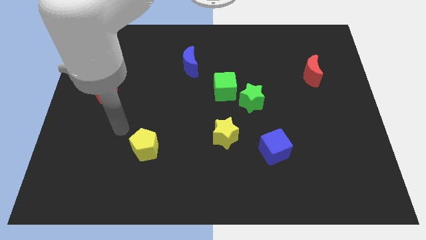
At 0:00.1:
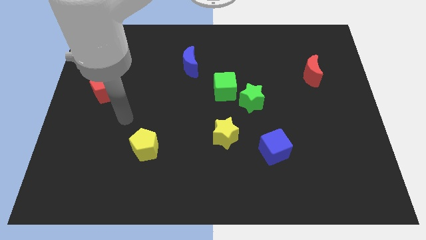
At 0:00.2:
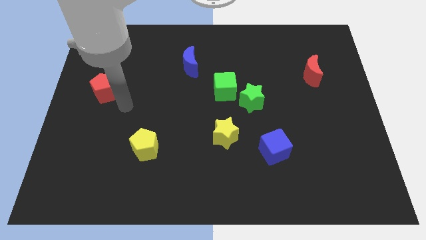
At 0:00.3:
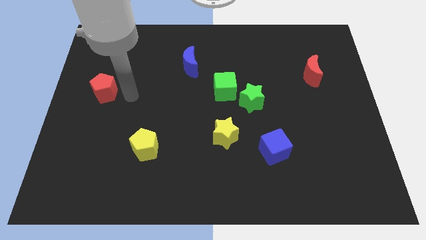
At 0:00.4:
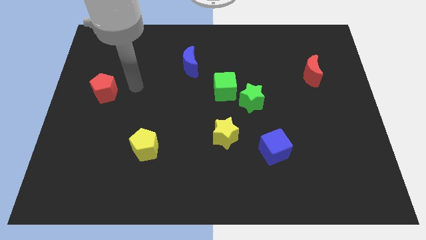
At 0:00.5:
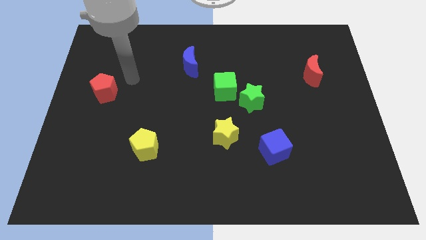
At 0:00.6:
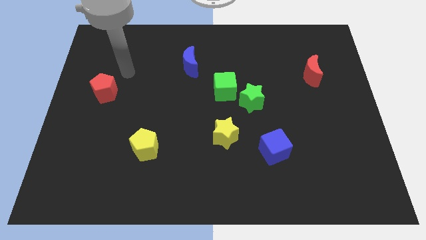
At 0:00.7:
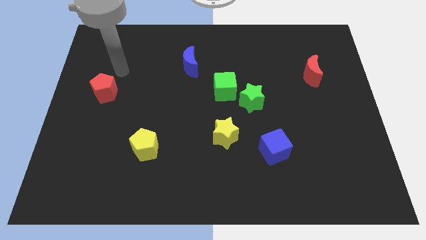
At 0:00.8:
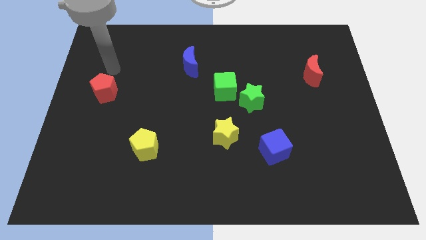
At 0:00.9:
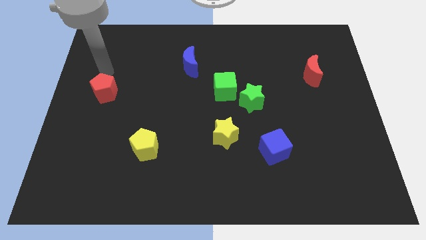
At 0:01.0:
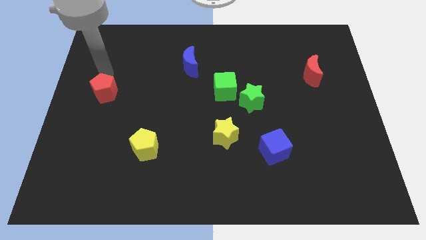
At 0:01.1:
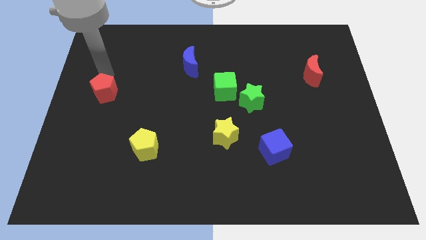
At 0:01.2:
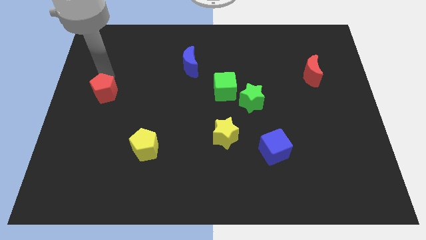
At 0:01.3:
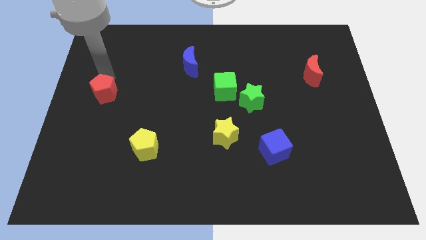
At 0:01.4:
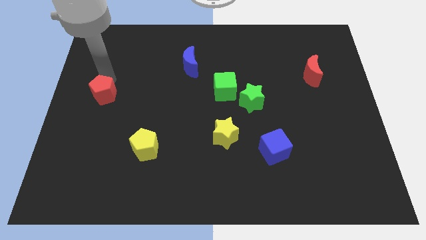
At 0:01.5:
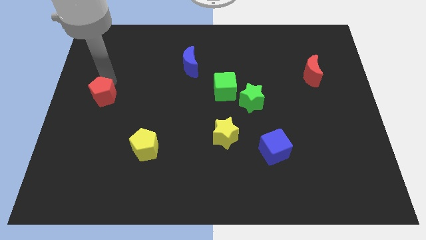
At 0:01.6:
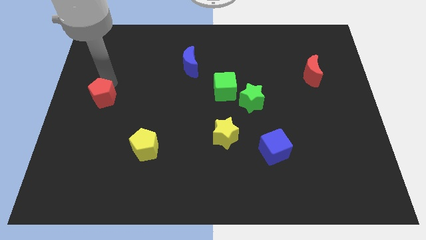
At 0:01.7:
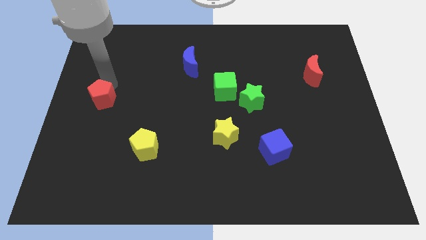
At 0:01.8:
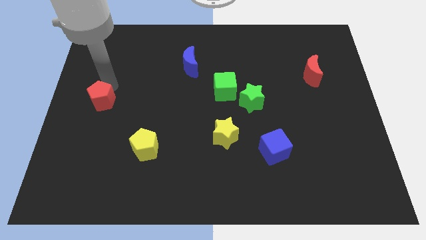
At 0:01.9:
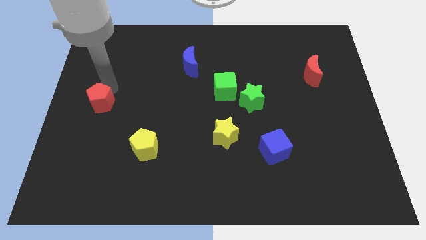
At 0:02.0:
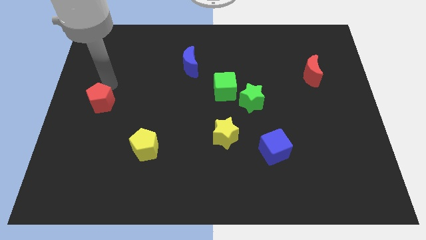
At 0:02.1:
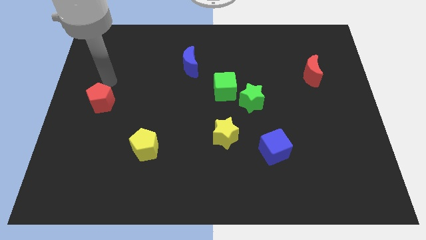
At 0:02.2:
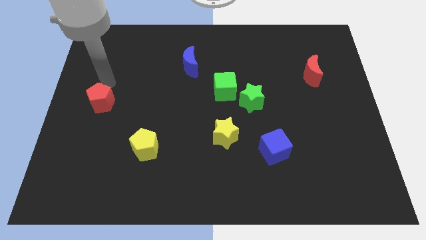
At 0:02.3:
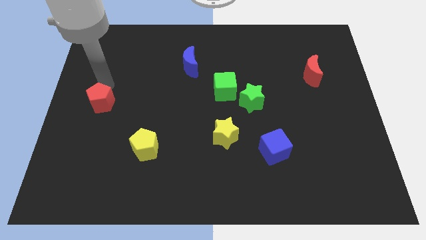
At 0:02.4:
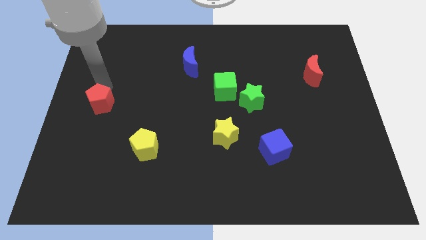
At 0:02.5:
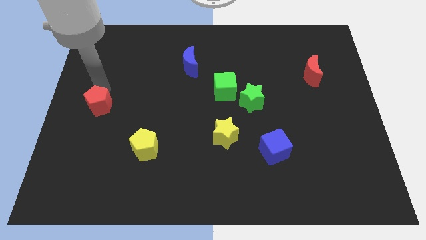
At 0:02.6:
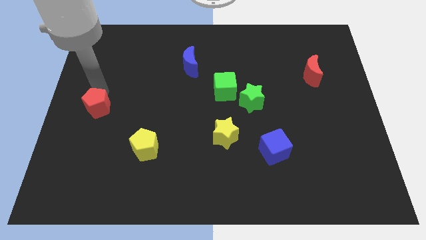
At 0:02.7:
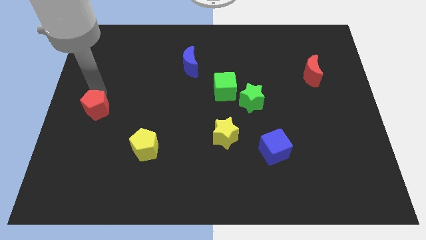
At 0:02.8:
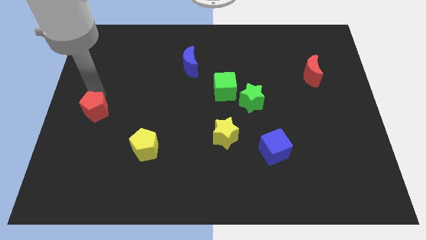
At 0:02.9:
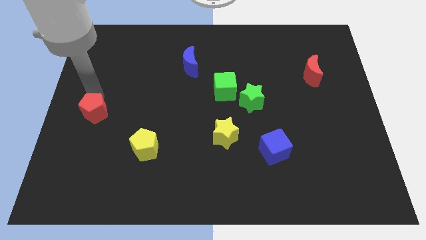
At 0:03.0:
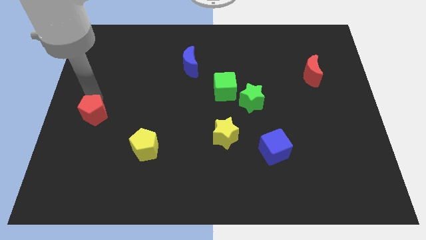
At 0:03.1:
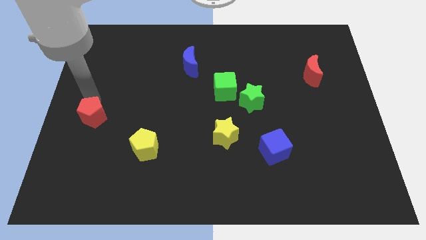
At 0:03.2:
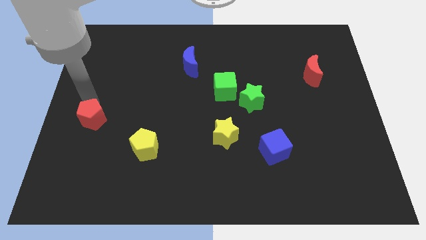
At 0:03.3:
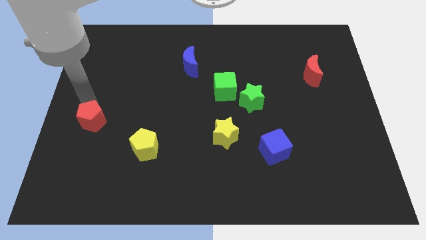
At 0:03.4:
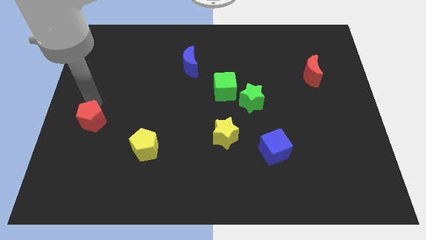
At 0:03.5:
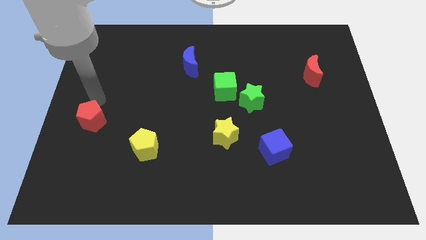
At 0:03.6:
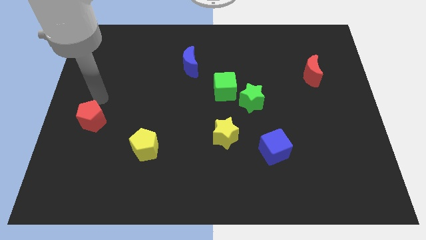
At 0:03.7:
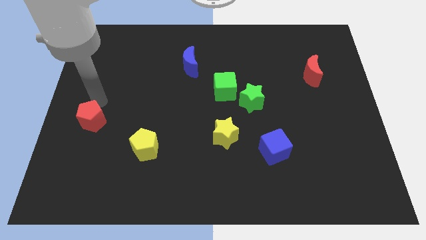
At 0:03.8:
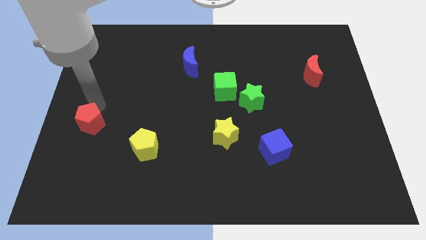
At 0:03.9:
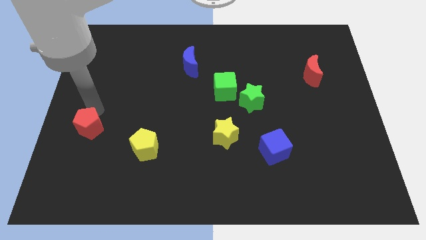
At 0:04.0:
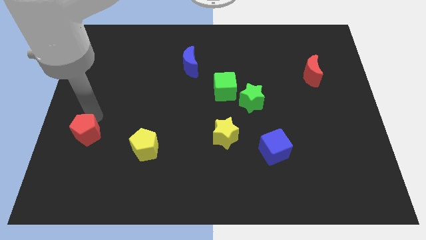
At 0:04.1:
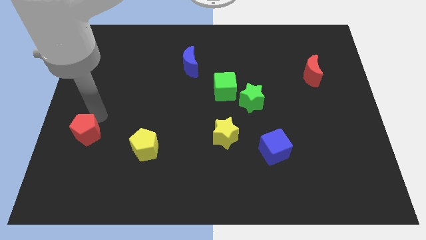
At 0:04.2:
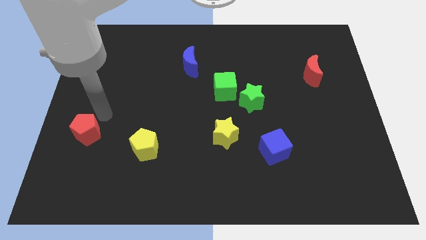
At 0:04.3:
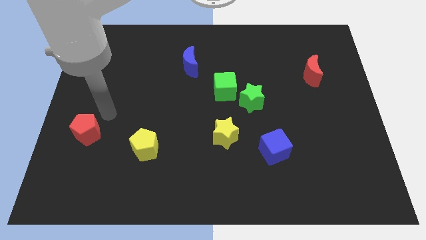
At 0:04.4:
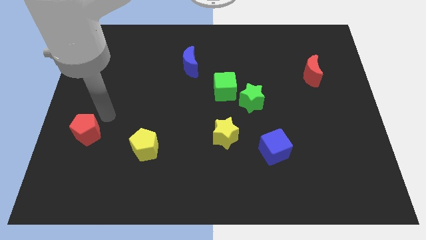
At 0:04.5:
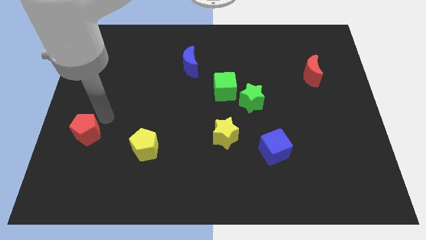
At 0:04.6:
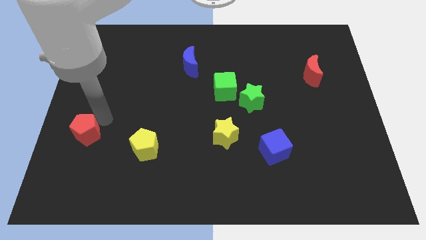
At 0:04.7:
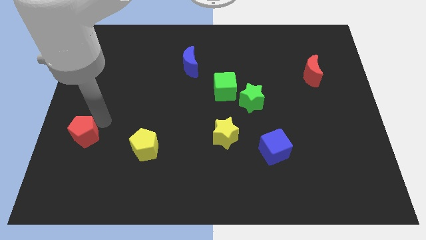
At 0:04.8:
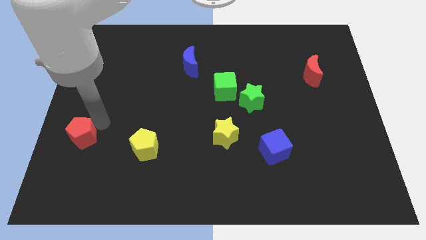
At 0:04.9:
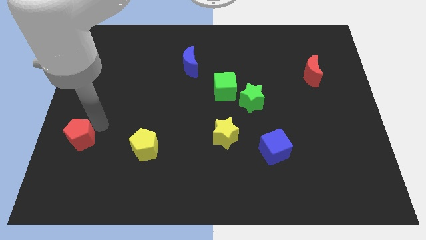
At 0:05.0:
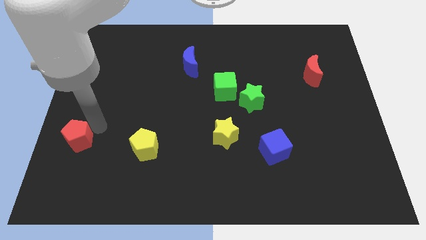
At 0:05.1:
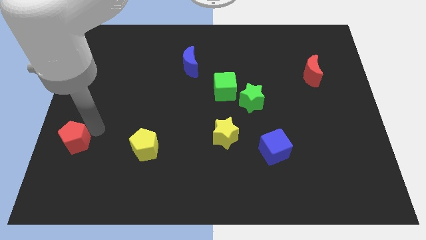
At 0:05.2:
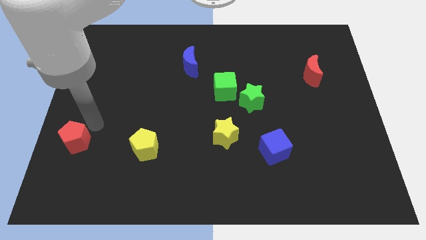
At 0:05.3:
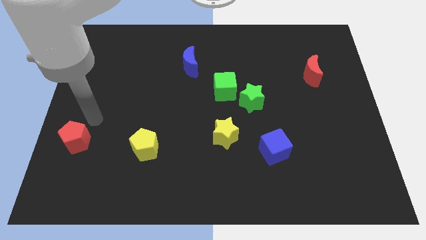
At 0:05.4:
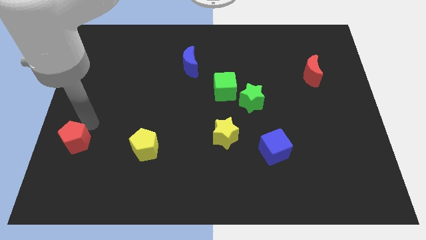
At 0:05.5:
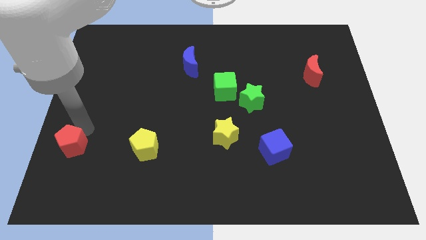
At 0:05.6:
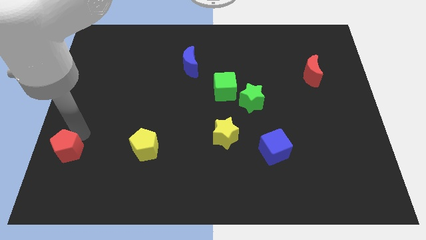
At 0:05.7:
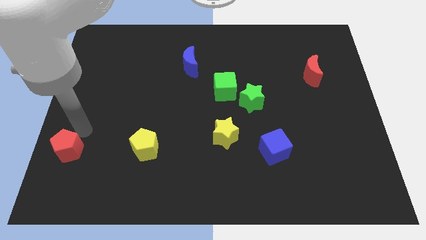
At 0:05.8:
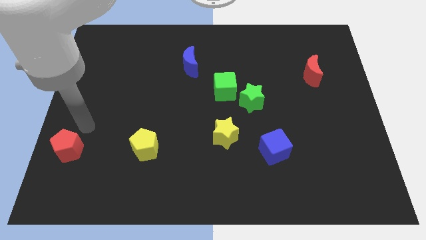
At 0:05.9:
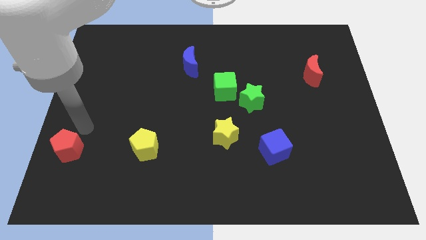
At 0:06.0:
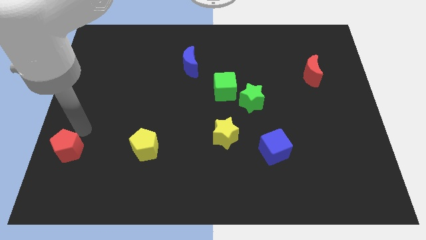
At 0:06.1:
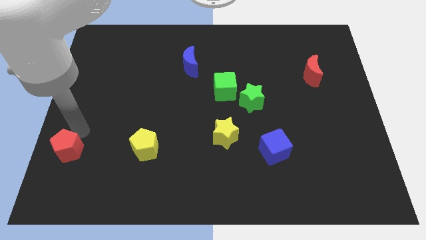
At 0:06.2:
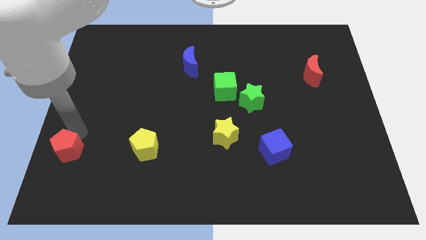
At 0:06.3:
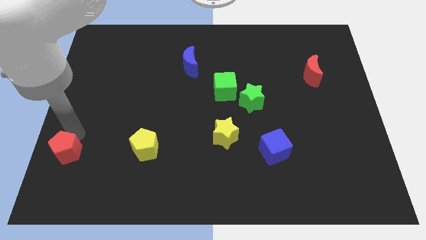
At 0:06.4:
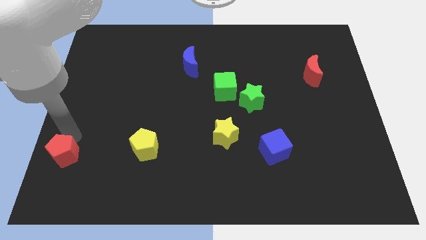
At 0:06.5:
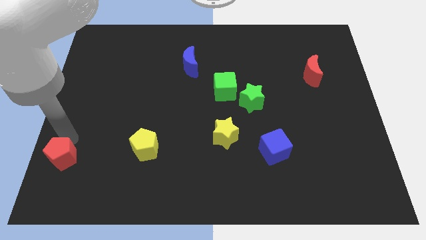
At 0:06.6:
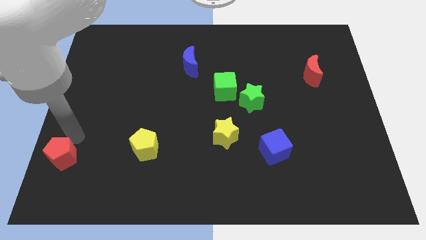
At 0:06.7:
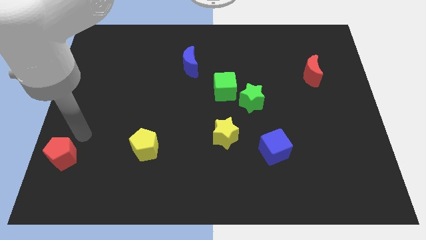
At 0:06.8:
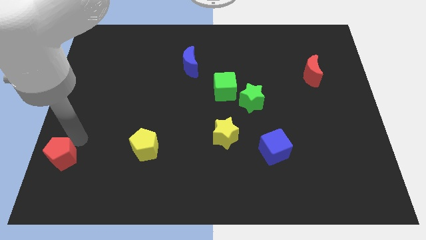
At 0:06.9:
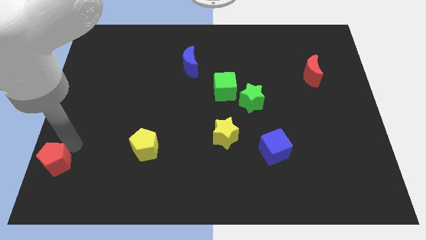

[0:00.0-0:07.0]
slide the red pentagon to the bottom left of the board

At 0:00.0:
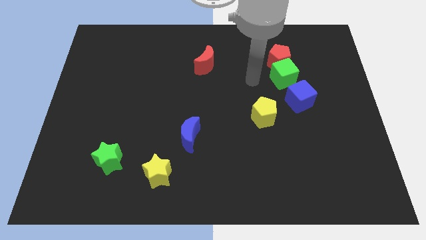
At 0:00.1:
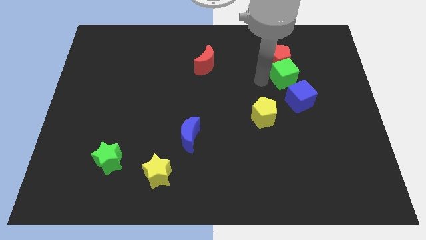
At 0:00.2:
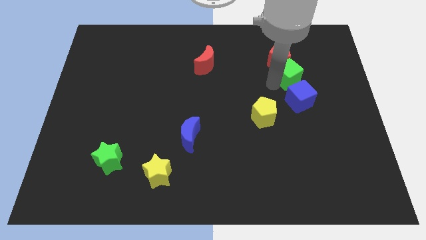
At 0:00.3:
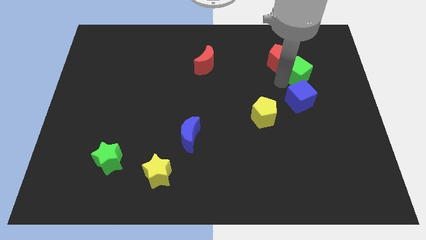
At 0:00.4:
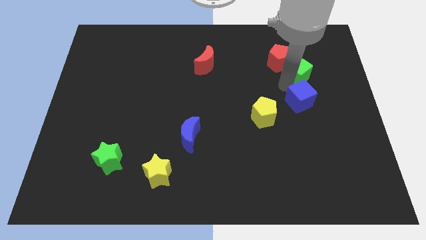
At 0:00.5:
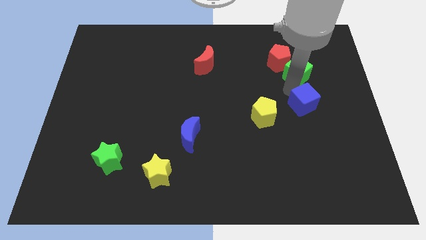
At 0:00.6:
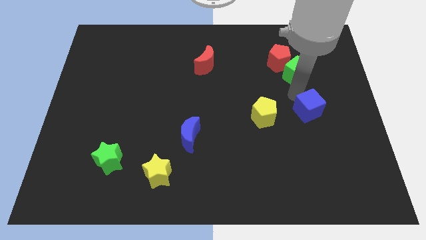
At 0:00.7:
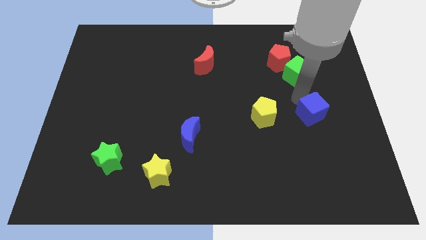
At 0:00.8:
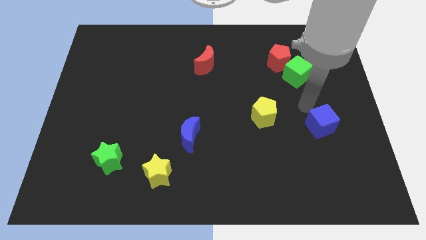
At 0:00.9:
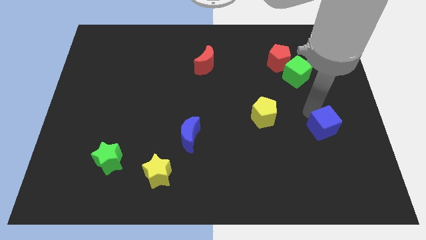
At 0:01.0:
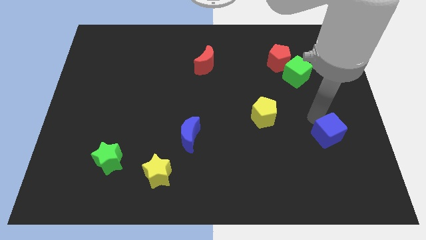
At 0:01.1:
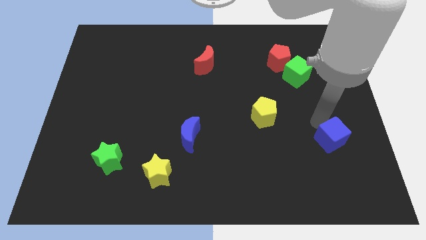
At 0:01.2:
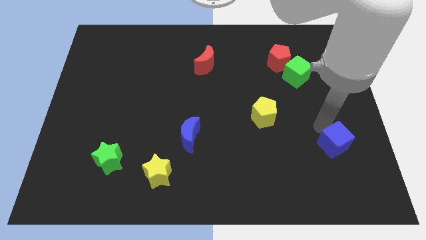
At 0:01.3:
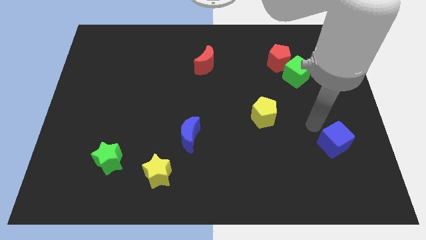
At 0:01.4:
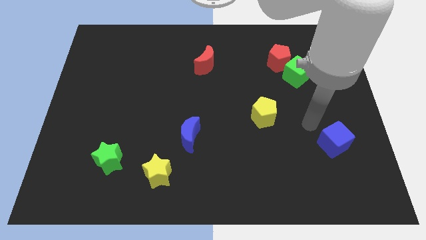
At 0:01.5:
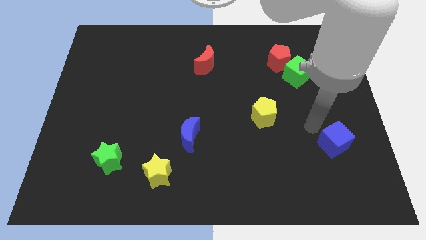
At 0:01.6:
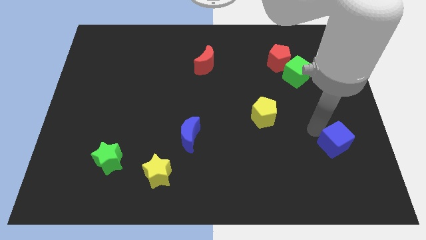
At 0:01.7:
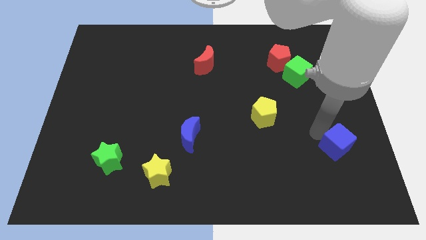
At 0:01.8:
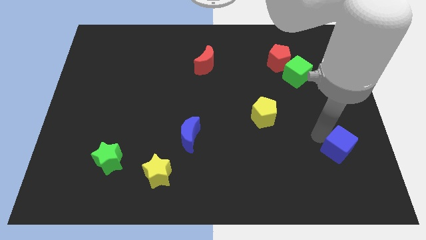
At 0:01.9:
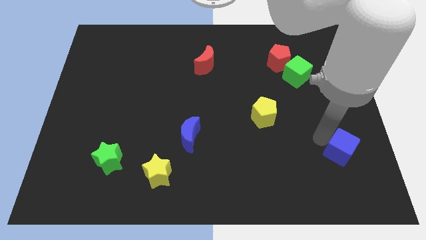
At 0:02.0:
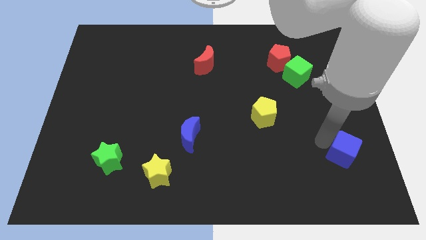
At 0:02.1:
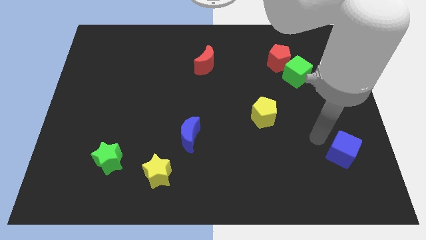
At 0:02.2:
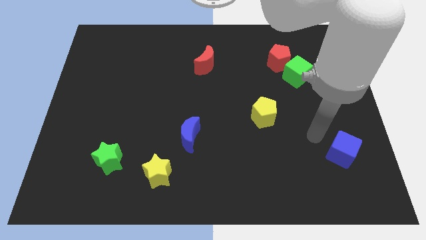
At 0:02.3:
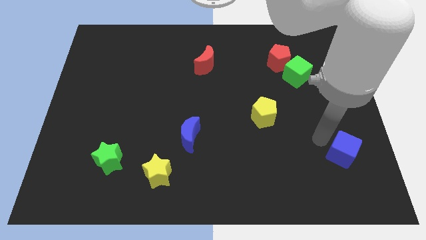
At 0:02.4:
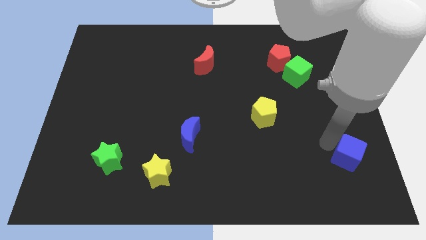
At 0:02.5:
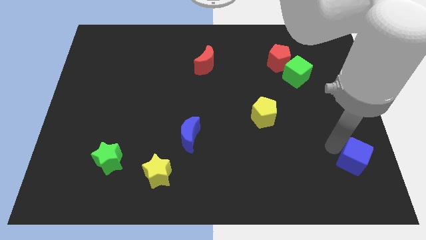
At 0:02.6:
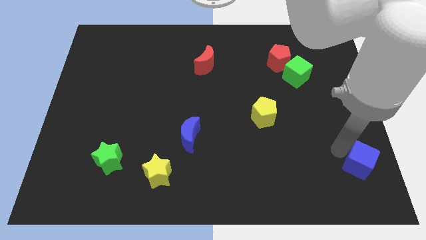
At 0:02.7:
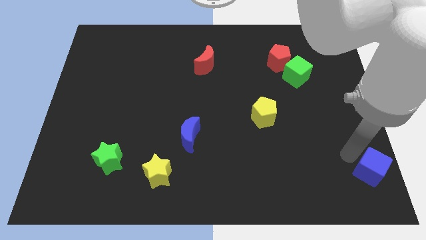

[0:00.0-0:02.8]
slide the blue cube to the bottom right
